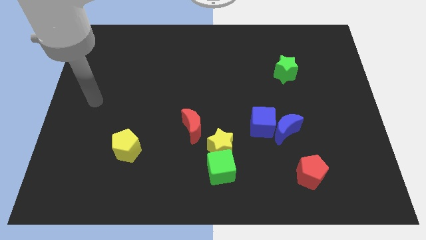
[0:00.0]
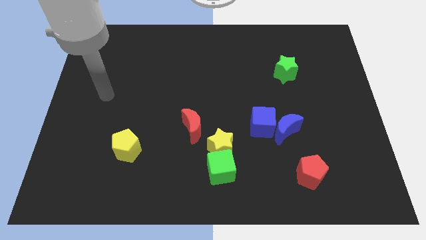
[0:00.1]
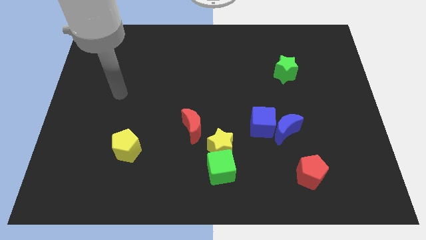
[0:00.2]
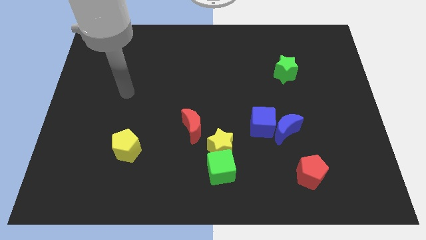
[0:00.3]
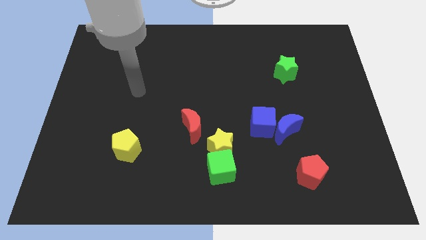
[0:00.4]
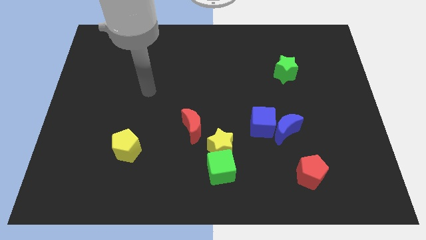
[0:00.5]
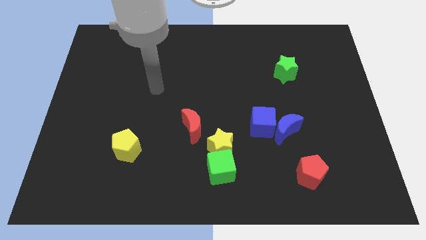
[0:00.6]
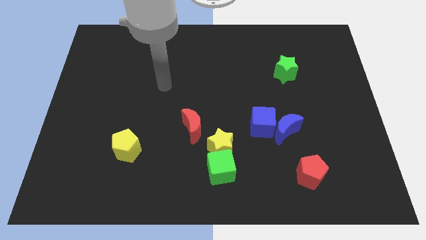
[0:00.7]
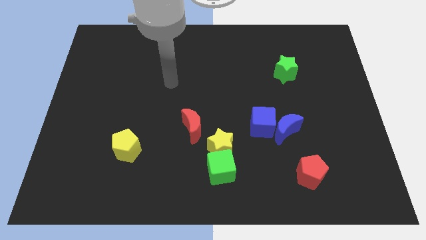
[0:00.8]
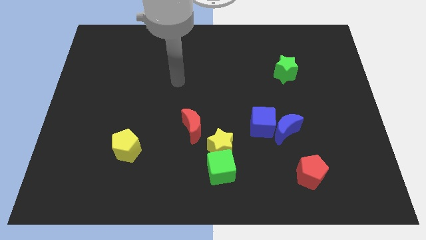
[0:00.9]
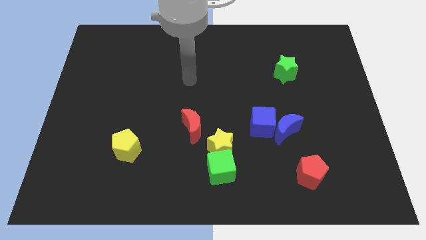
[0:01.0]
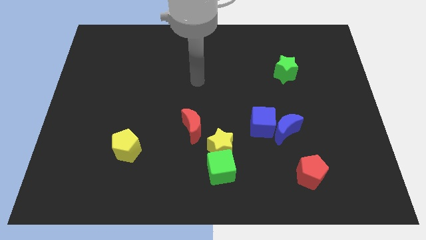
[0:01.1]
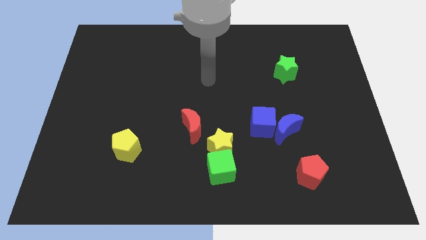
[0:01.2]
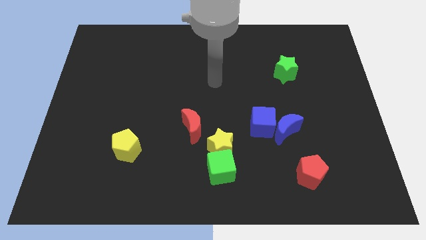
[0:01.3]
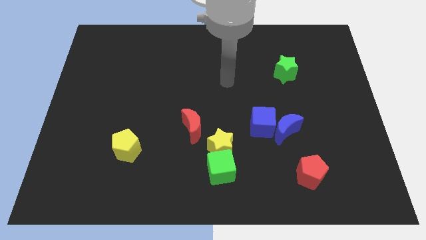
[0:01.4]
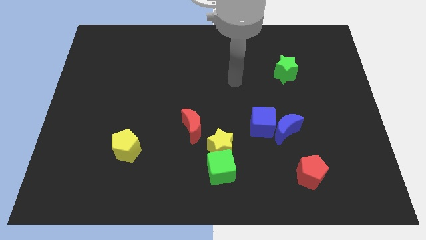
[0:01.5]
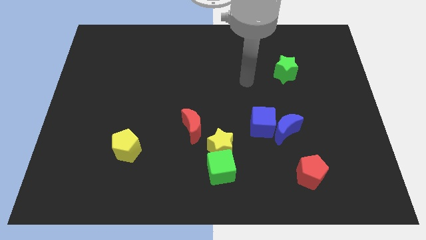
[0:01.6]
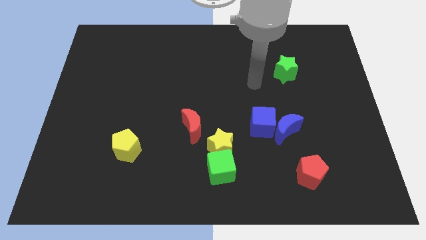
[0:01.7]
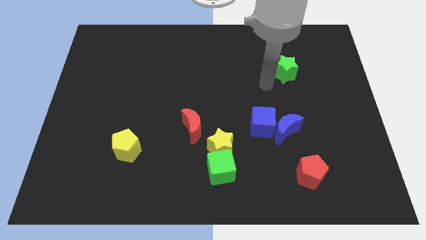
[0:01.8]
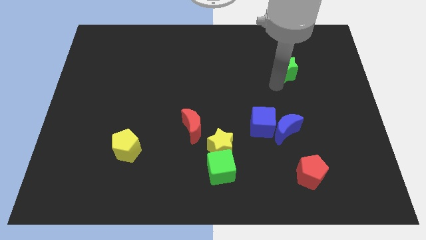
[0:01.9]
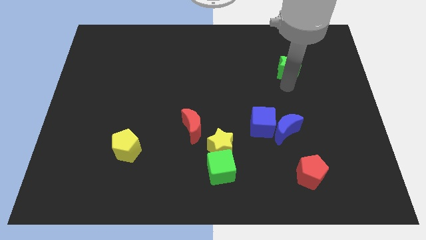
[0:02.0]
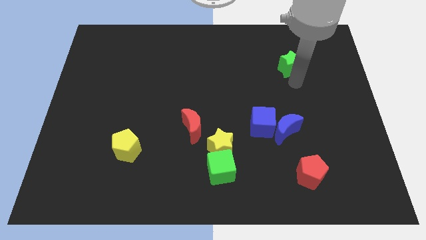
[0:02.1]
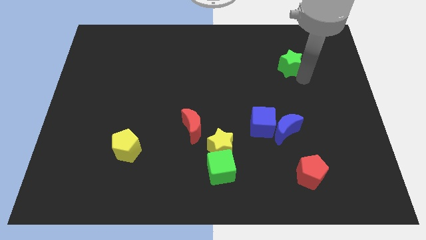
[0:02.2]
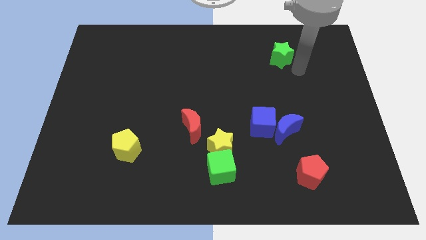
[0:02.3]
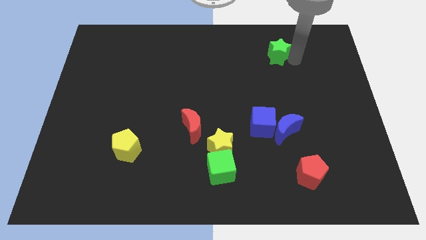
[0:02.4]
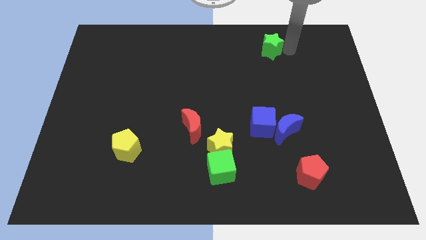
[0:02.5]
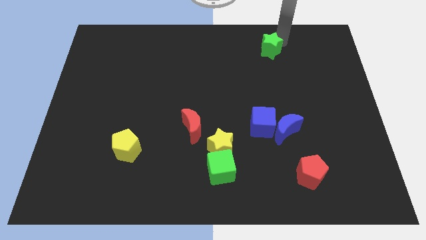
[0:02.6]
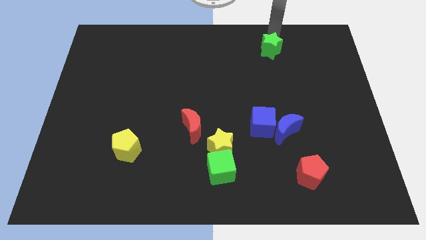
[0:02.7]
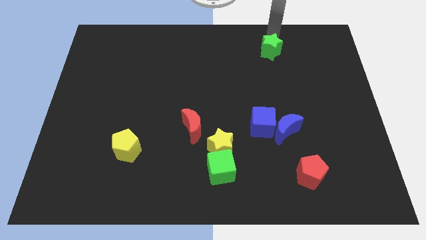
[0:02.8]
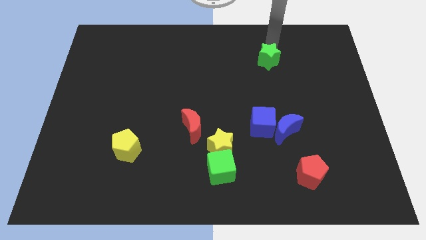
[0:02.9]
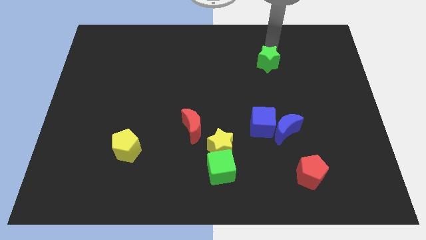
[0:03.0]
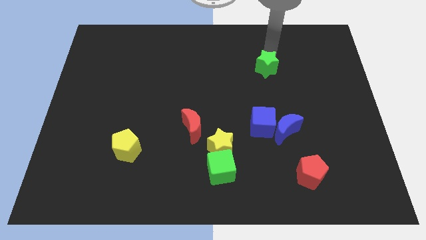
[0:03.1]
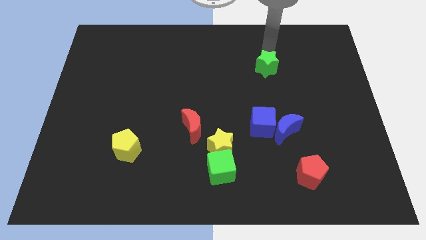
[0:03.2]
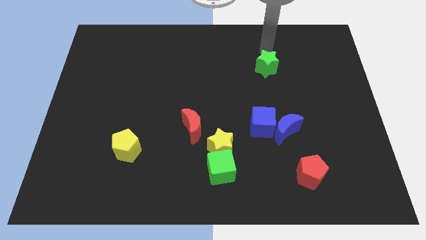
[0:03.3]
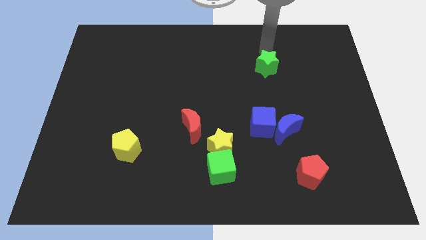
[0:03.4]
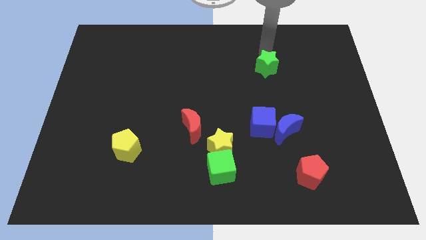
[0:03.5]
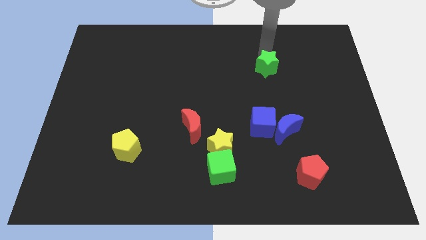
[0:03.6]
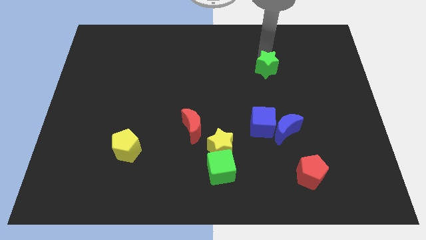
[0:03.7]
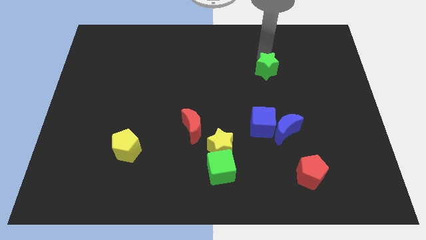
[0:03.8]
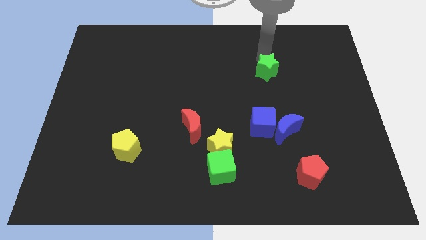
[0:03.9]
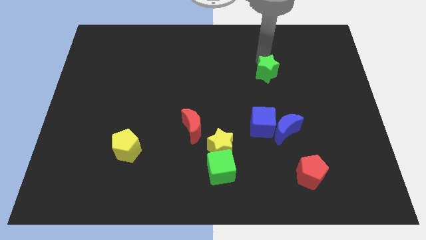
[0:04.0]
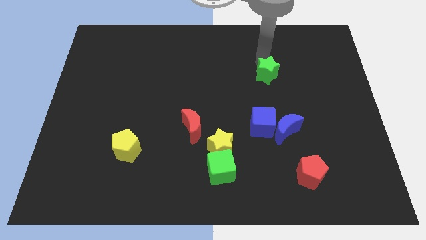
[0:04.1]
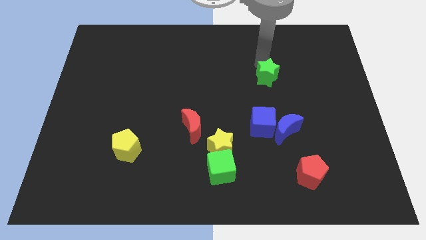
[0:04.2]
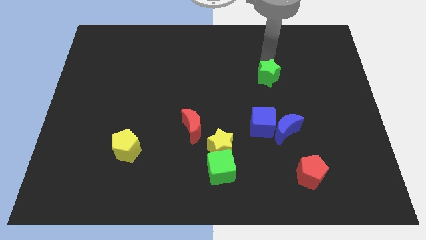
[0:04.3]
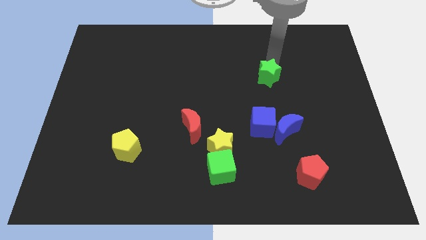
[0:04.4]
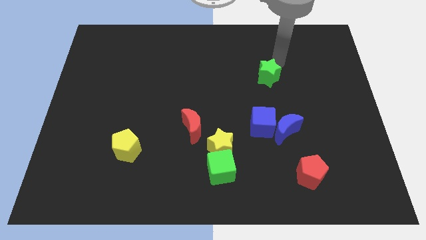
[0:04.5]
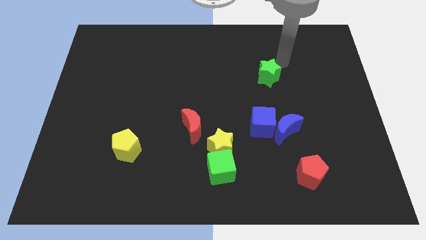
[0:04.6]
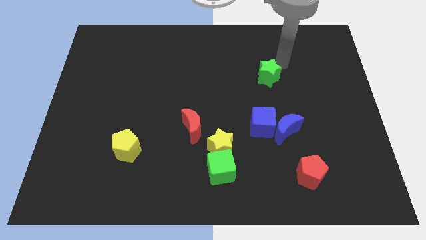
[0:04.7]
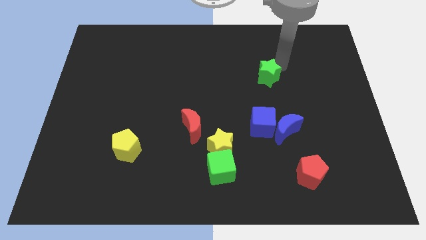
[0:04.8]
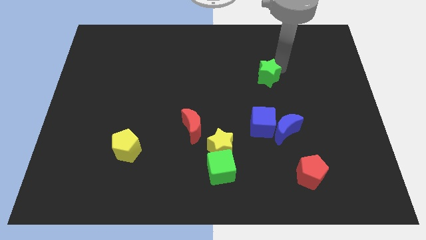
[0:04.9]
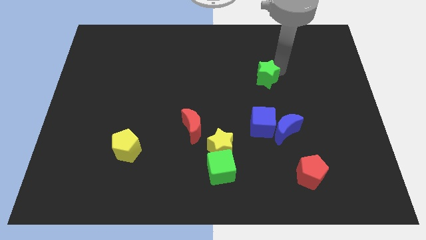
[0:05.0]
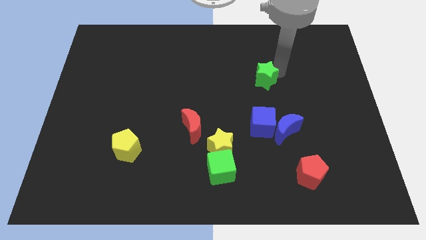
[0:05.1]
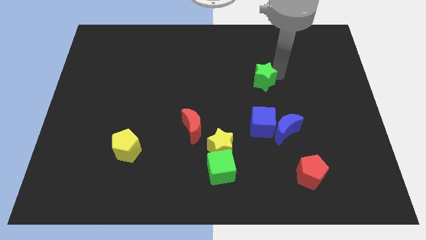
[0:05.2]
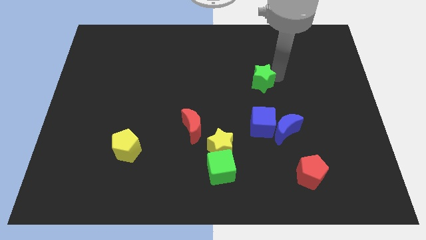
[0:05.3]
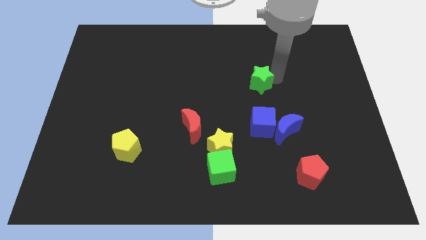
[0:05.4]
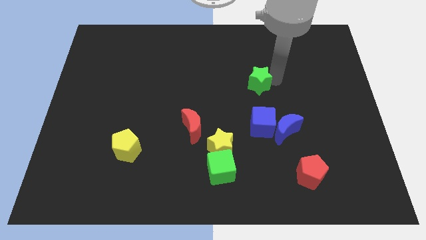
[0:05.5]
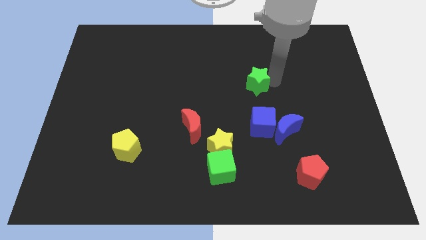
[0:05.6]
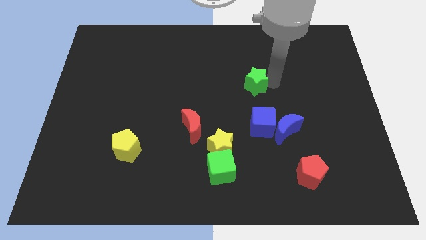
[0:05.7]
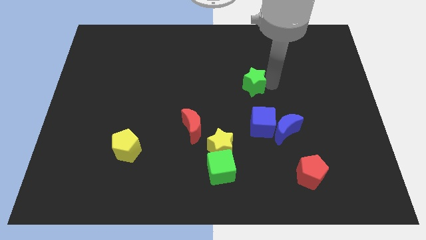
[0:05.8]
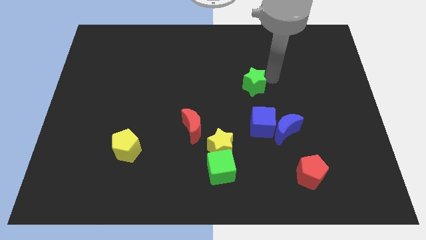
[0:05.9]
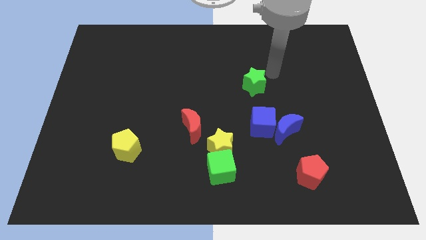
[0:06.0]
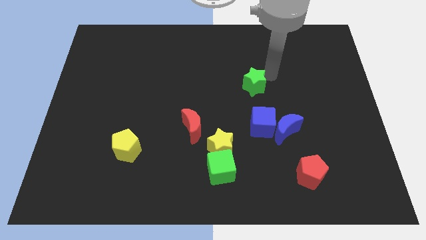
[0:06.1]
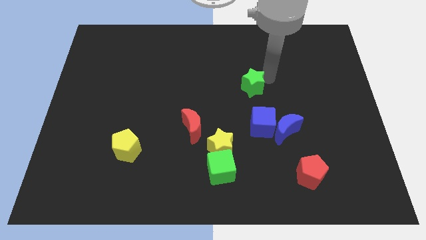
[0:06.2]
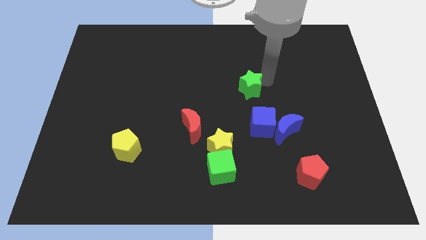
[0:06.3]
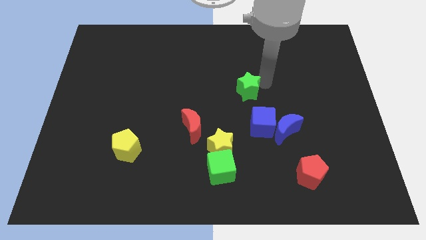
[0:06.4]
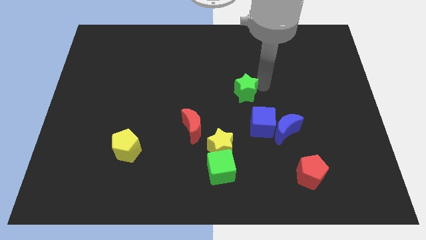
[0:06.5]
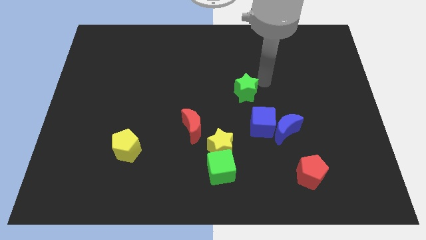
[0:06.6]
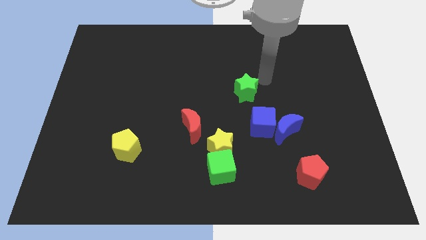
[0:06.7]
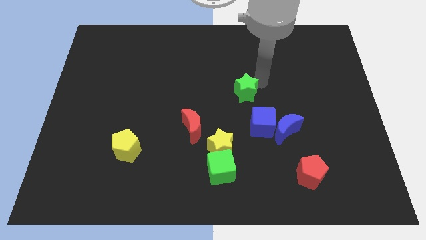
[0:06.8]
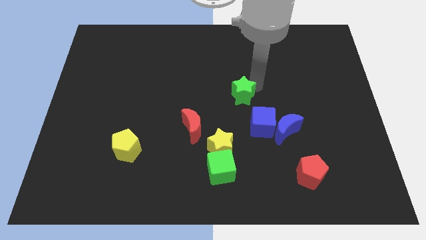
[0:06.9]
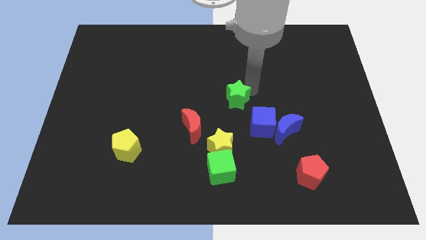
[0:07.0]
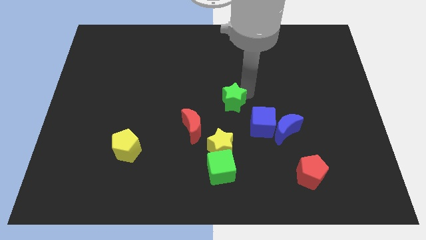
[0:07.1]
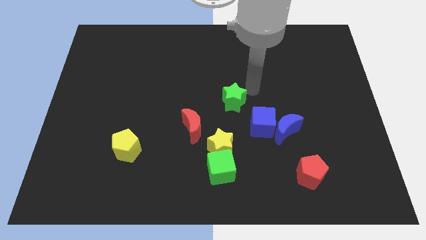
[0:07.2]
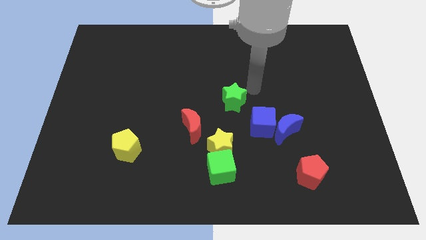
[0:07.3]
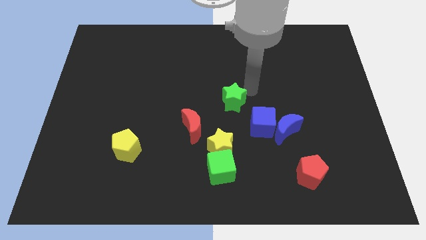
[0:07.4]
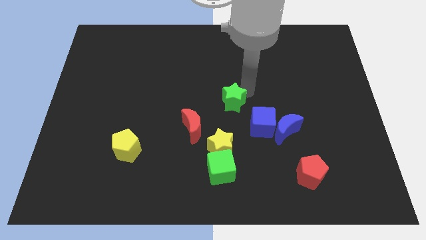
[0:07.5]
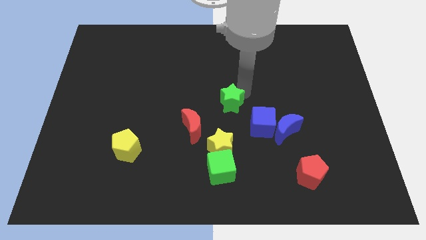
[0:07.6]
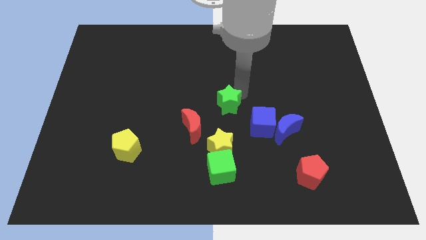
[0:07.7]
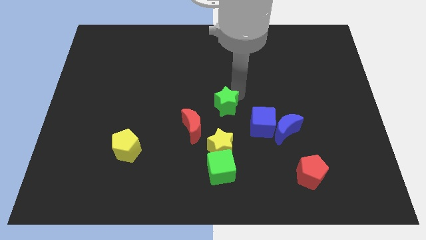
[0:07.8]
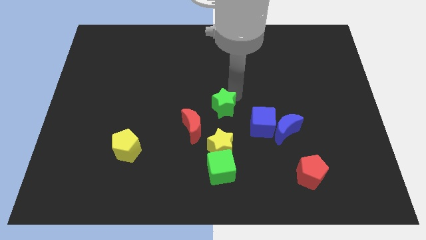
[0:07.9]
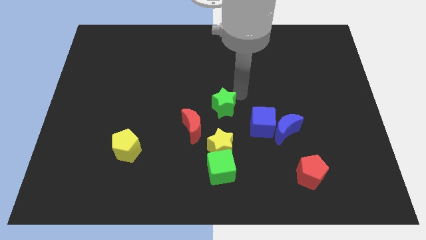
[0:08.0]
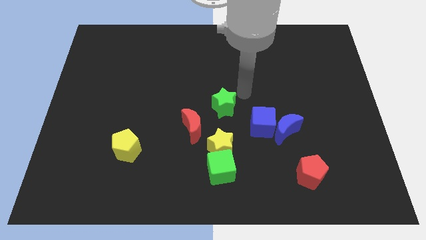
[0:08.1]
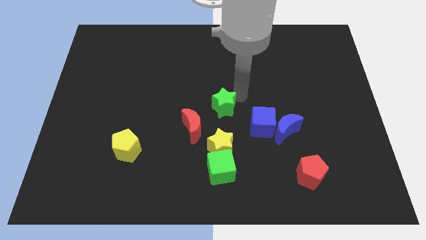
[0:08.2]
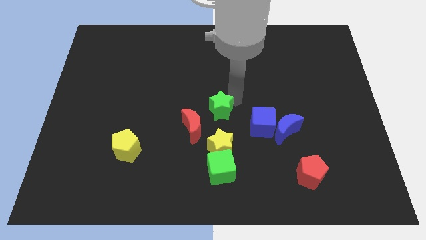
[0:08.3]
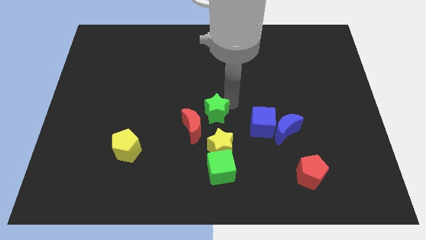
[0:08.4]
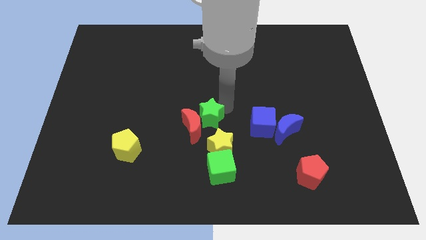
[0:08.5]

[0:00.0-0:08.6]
push the green star to the red moon
